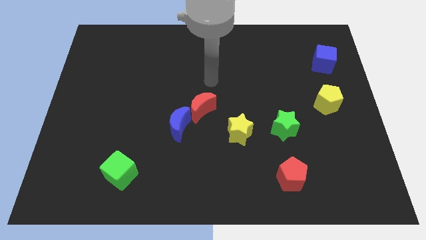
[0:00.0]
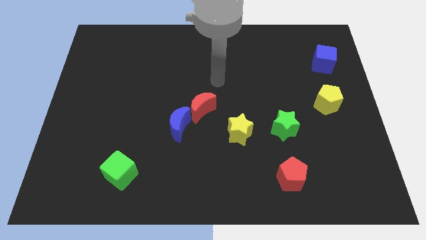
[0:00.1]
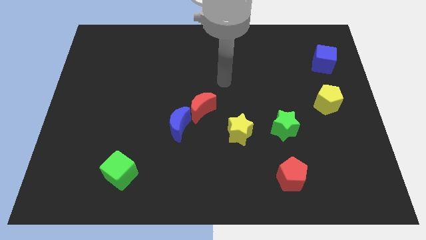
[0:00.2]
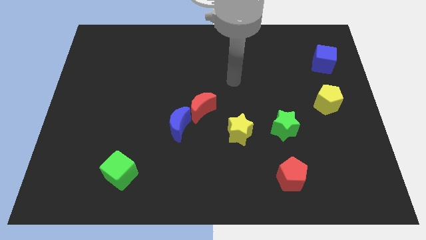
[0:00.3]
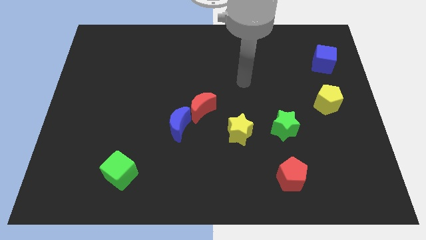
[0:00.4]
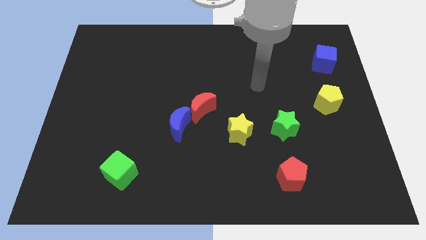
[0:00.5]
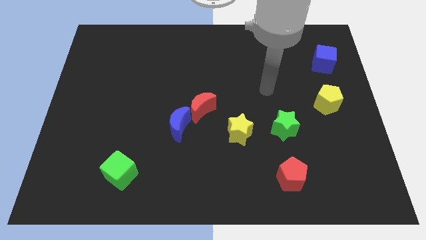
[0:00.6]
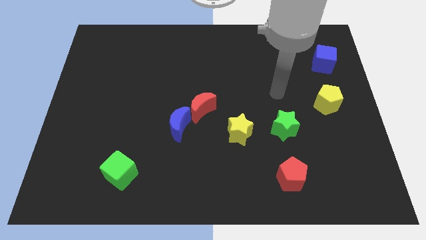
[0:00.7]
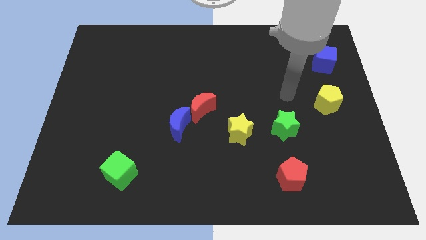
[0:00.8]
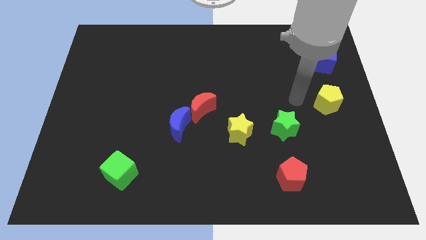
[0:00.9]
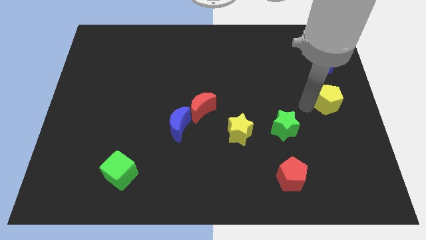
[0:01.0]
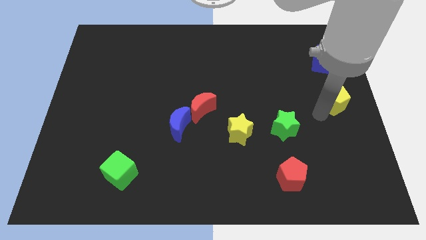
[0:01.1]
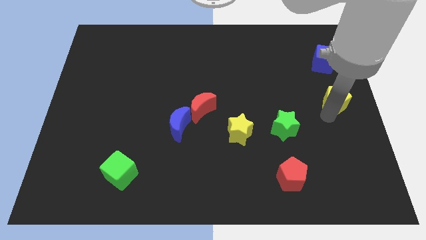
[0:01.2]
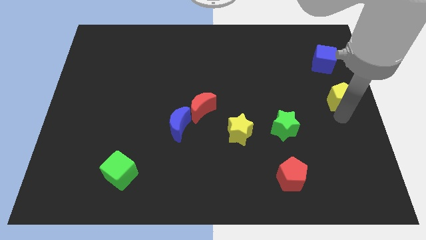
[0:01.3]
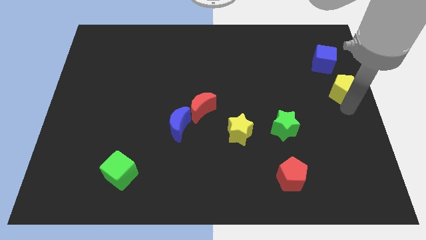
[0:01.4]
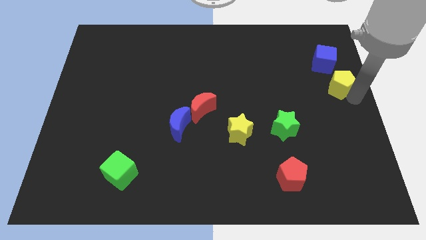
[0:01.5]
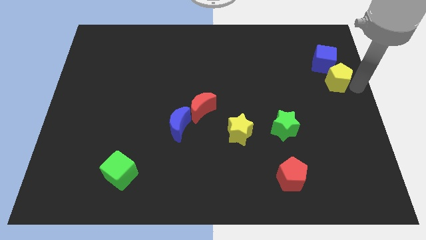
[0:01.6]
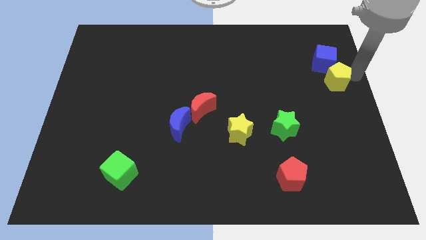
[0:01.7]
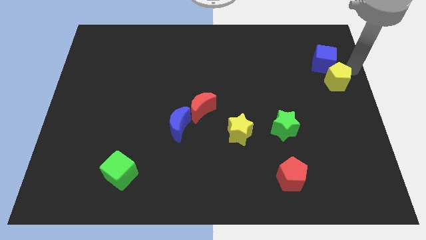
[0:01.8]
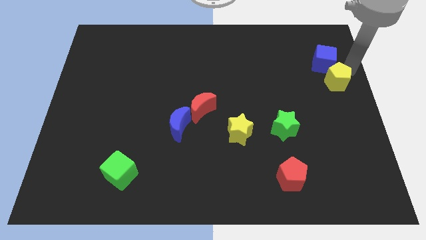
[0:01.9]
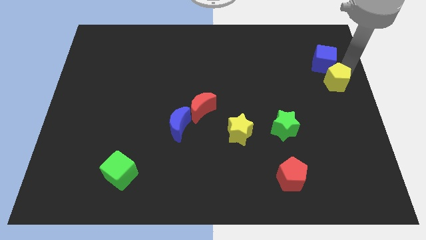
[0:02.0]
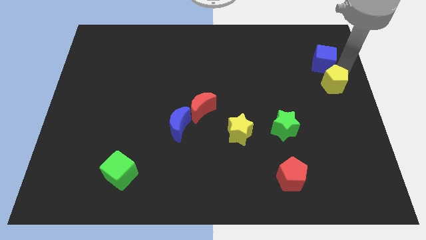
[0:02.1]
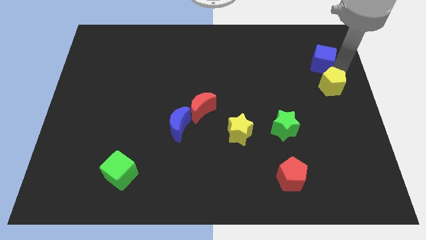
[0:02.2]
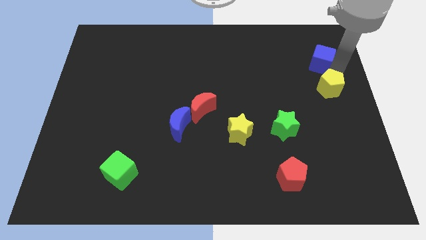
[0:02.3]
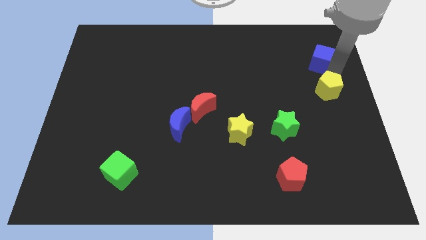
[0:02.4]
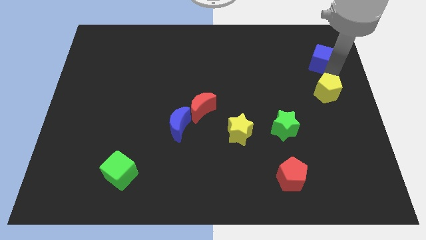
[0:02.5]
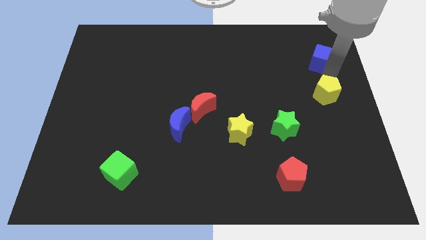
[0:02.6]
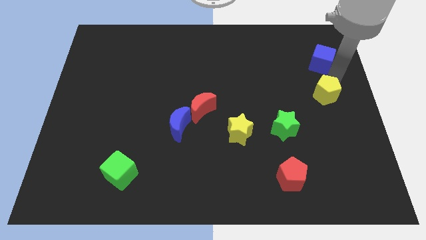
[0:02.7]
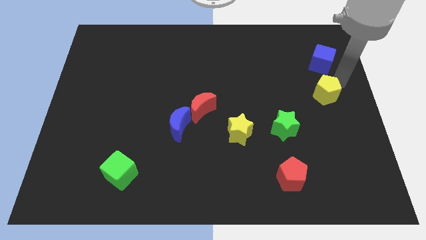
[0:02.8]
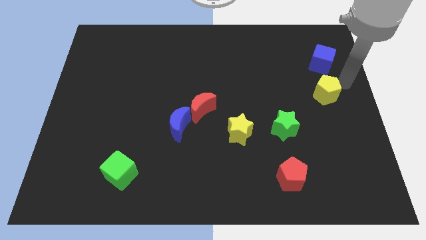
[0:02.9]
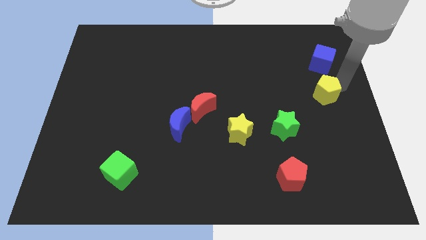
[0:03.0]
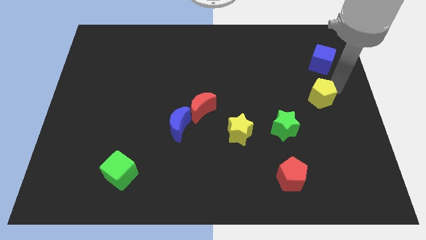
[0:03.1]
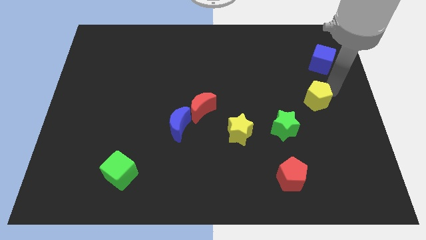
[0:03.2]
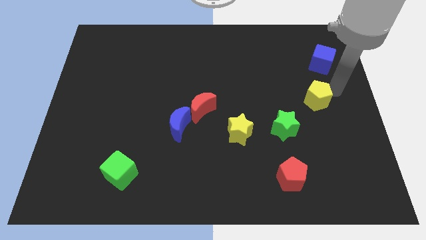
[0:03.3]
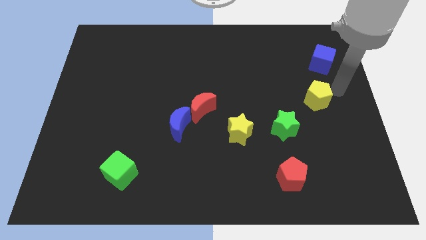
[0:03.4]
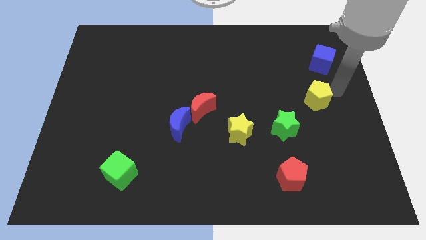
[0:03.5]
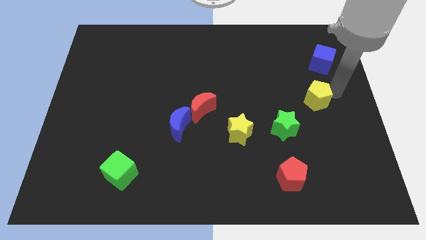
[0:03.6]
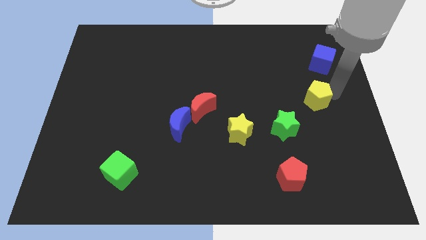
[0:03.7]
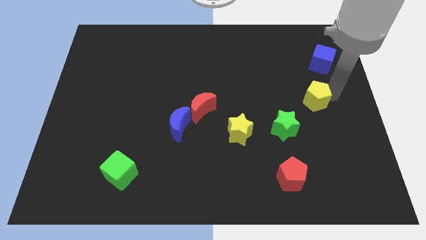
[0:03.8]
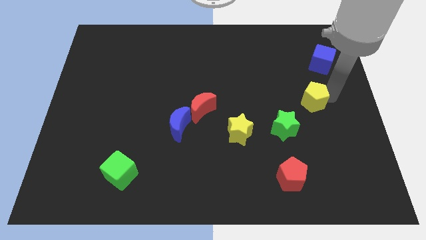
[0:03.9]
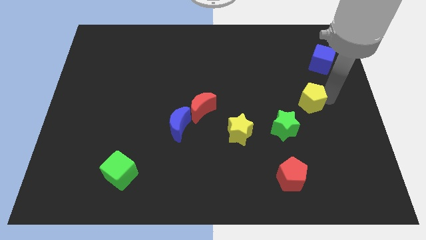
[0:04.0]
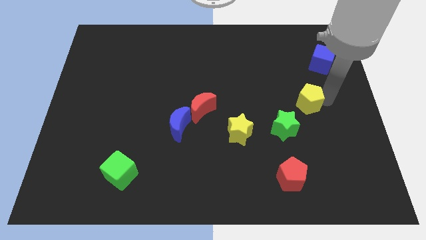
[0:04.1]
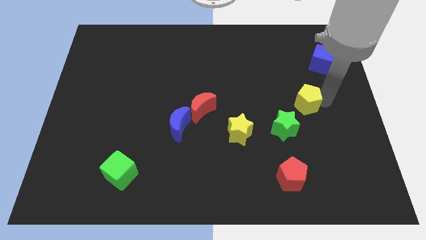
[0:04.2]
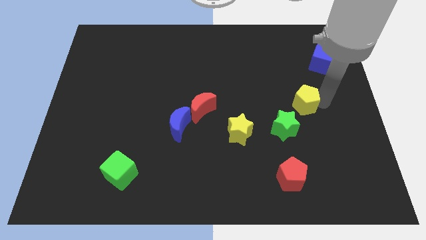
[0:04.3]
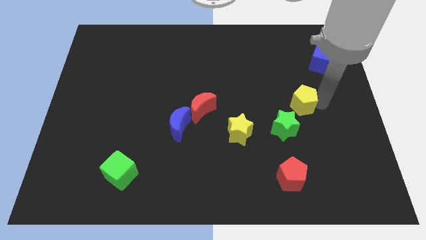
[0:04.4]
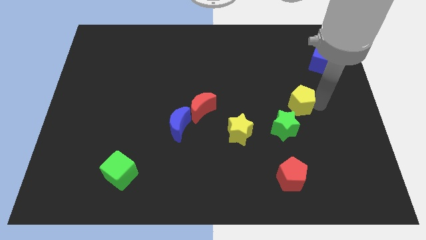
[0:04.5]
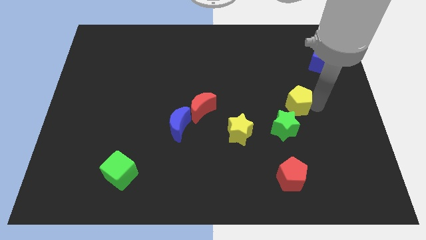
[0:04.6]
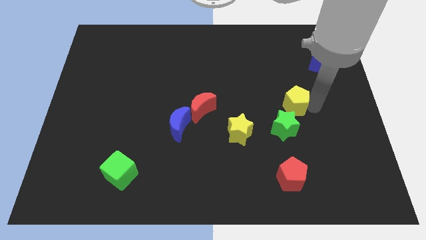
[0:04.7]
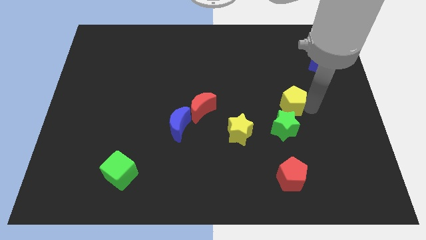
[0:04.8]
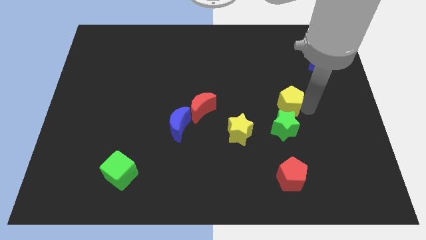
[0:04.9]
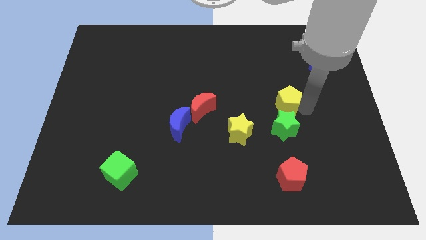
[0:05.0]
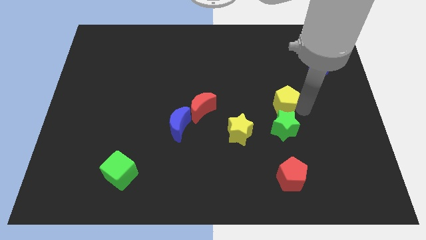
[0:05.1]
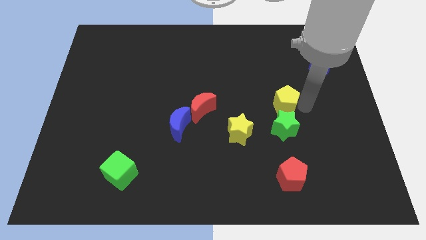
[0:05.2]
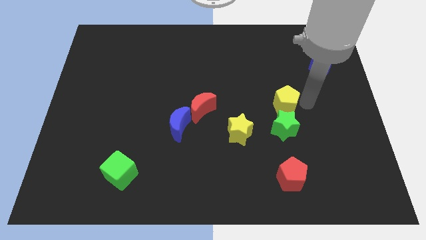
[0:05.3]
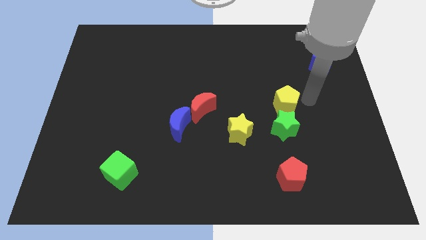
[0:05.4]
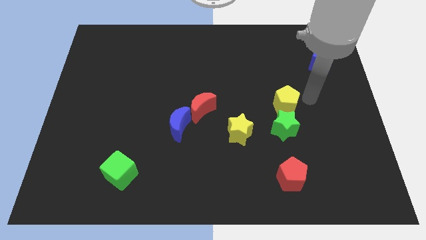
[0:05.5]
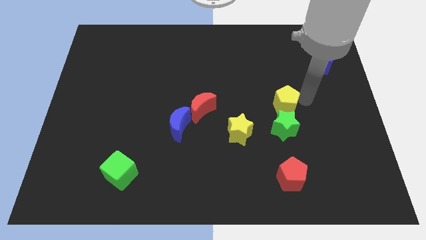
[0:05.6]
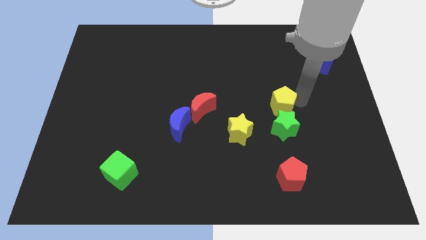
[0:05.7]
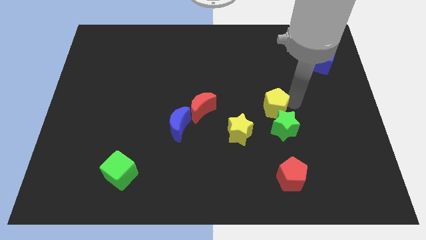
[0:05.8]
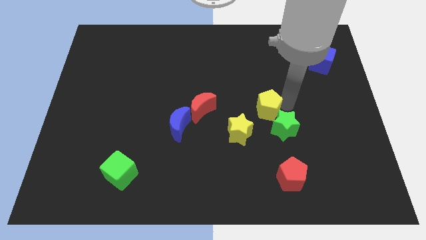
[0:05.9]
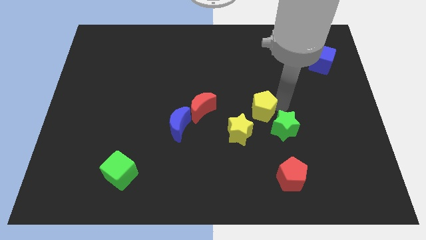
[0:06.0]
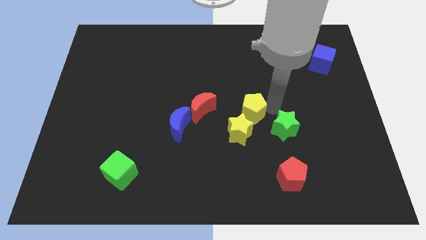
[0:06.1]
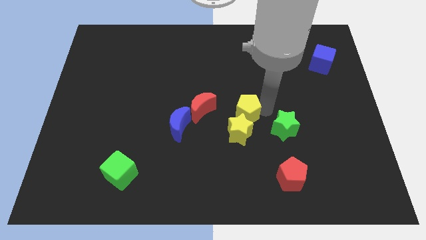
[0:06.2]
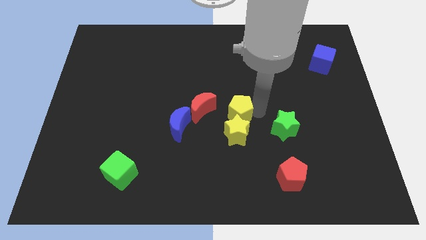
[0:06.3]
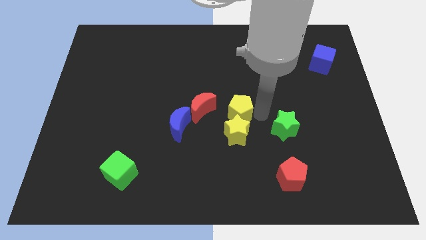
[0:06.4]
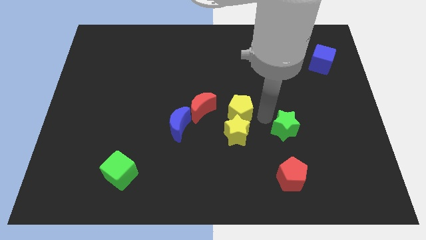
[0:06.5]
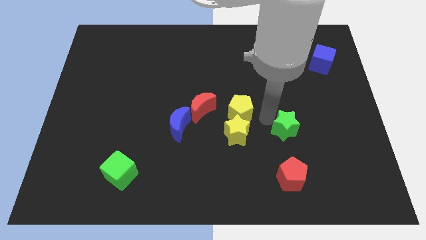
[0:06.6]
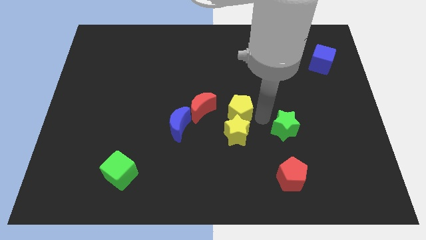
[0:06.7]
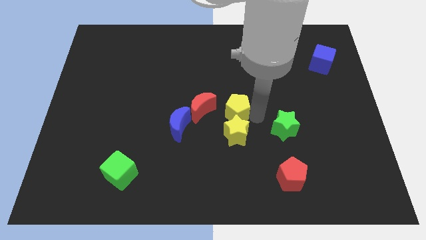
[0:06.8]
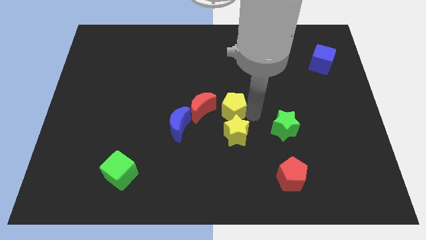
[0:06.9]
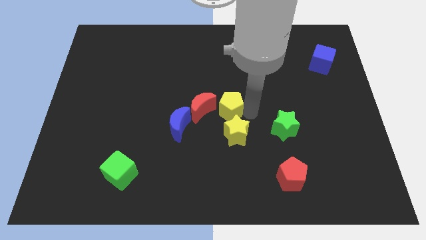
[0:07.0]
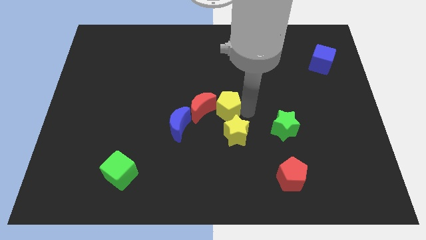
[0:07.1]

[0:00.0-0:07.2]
push the yellow pentagon next to the red moon
